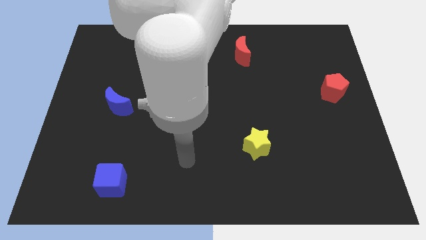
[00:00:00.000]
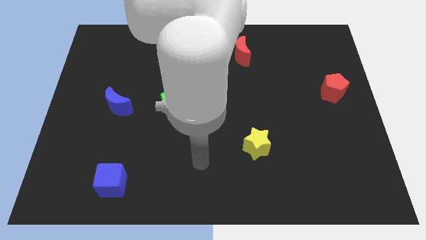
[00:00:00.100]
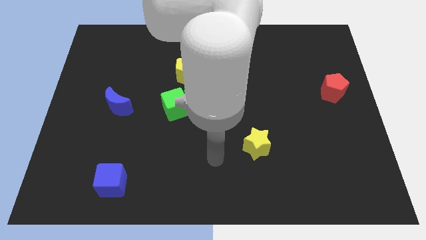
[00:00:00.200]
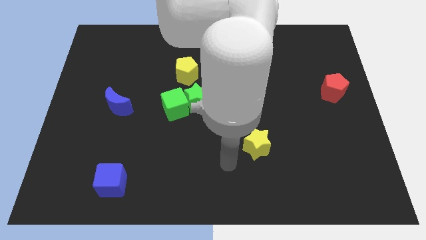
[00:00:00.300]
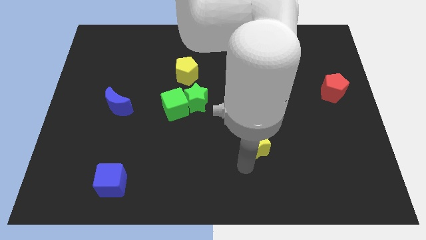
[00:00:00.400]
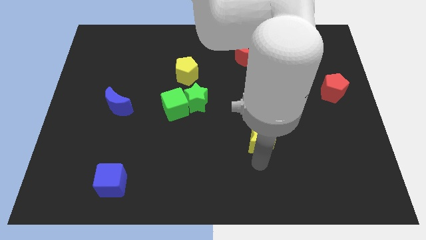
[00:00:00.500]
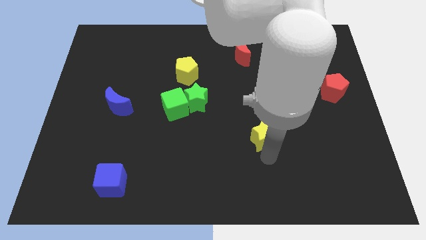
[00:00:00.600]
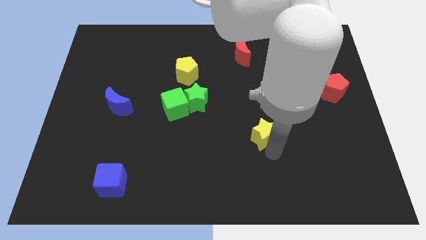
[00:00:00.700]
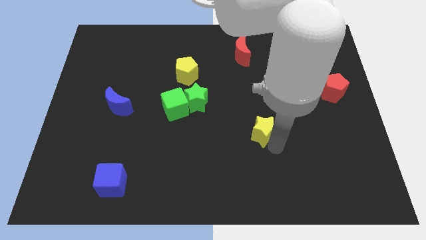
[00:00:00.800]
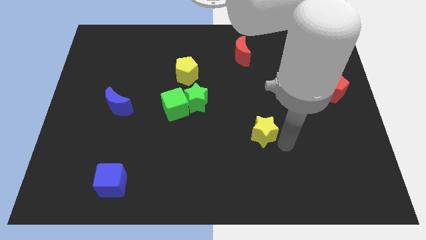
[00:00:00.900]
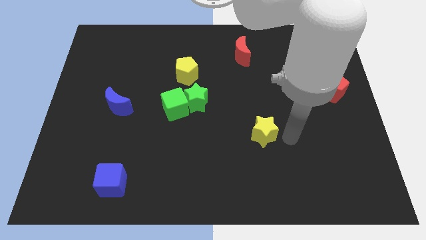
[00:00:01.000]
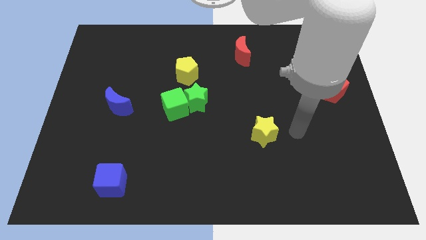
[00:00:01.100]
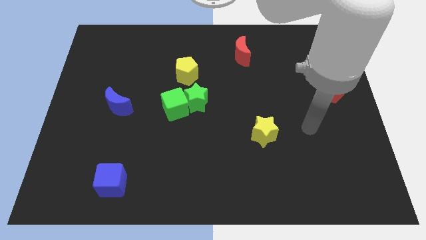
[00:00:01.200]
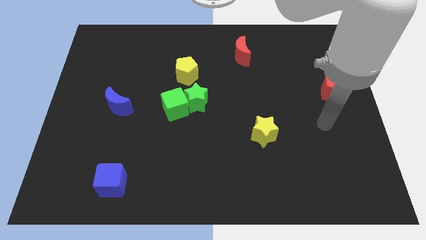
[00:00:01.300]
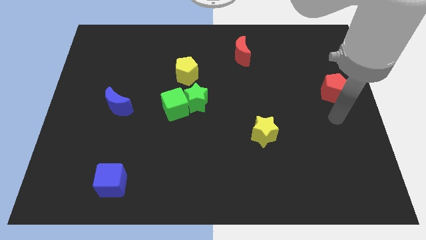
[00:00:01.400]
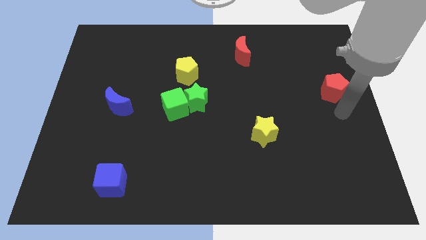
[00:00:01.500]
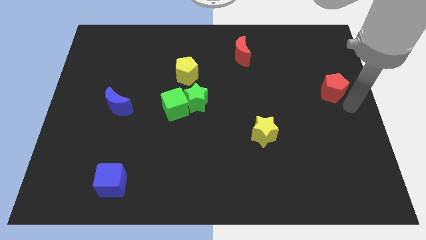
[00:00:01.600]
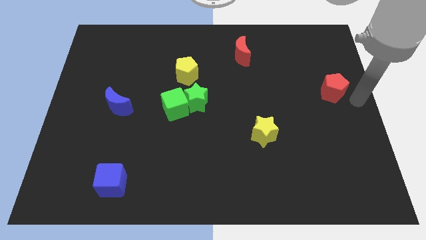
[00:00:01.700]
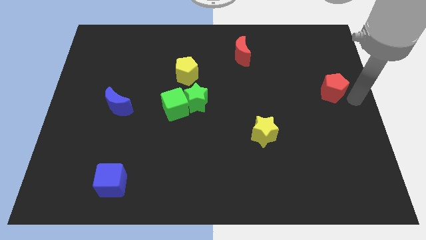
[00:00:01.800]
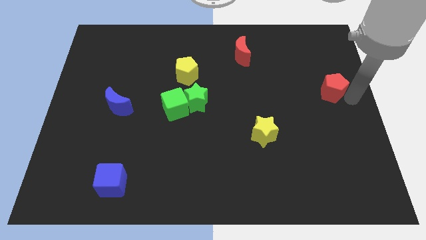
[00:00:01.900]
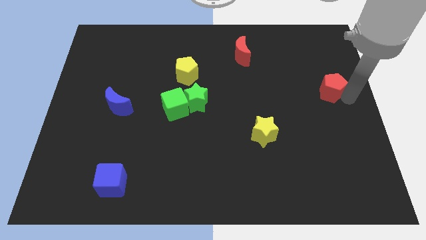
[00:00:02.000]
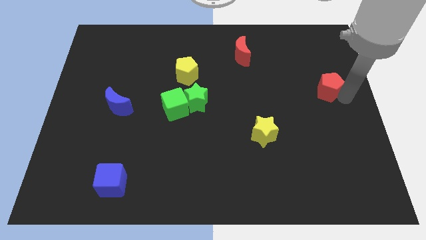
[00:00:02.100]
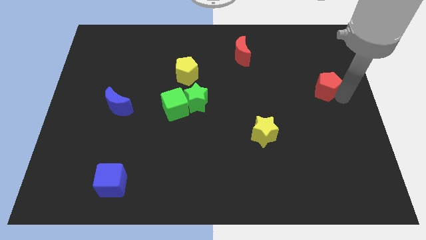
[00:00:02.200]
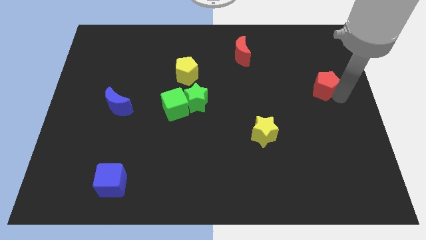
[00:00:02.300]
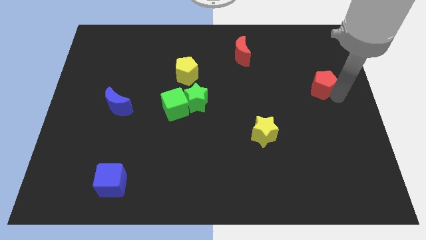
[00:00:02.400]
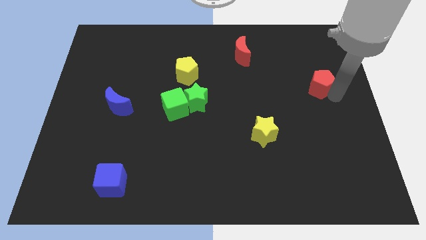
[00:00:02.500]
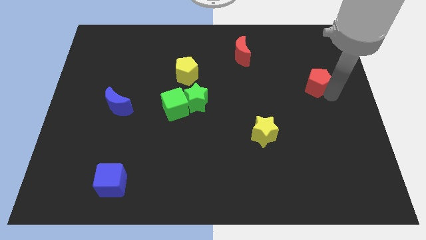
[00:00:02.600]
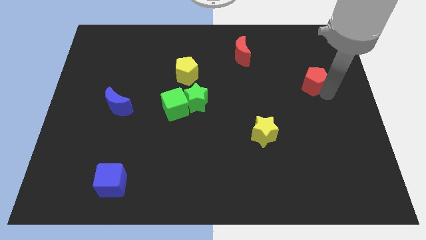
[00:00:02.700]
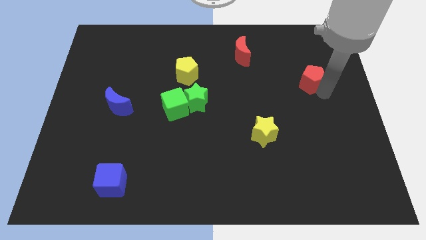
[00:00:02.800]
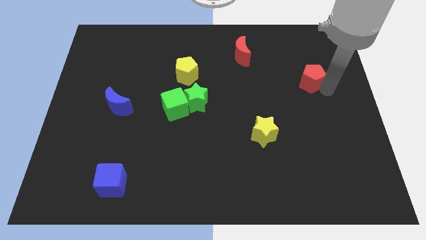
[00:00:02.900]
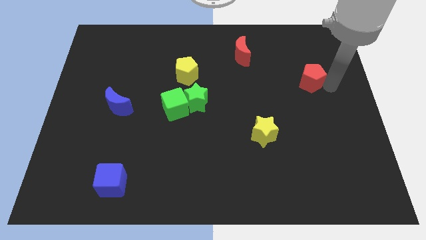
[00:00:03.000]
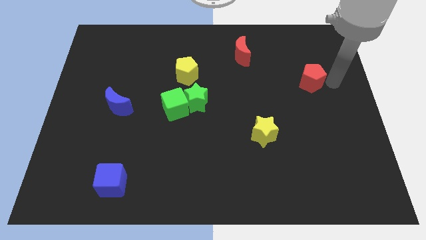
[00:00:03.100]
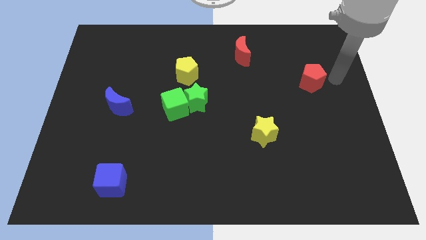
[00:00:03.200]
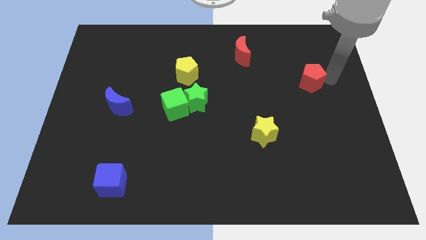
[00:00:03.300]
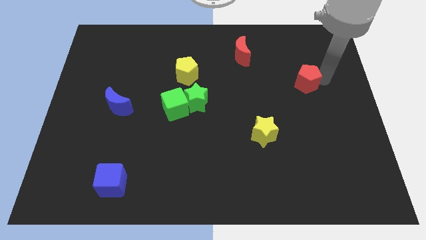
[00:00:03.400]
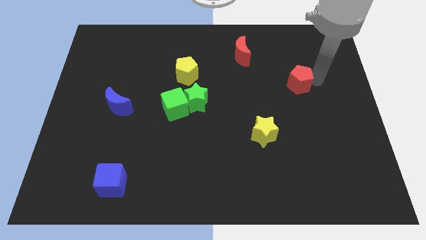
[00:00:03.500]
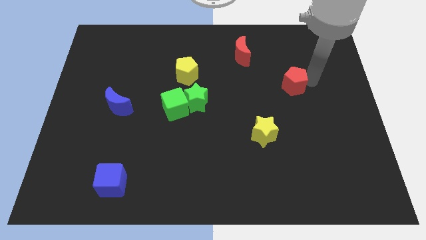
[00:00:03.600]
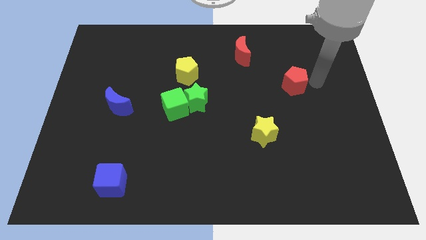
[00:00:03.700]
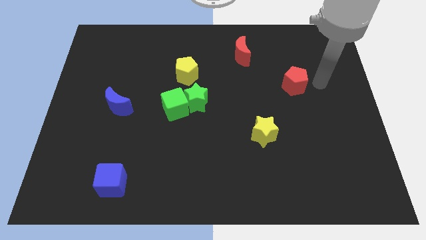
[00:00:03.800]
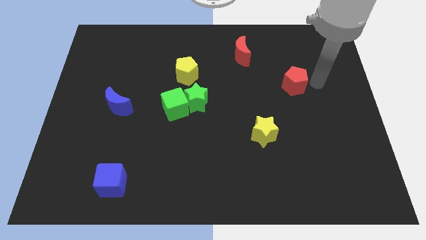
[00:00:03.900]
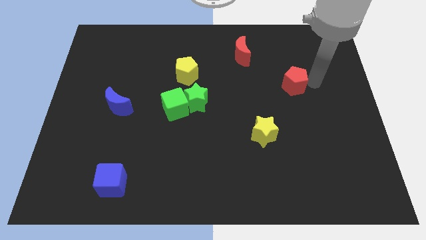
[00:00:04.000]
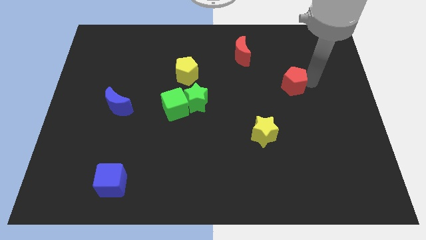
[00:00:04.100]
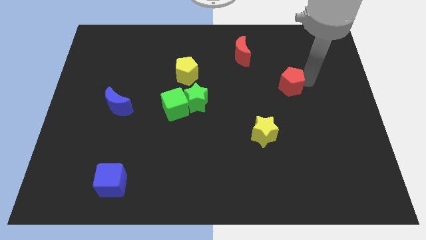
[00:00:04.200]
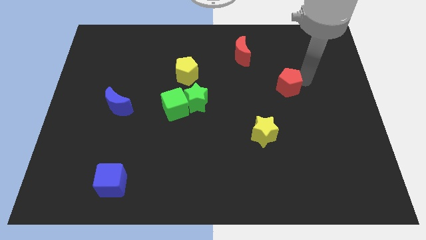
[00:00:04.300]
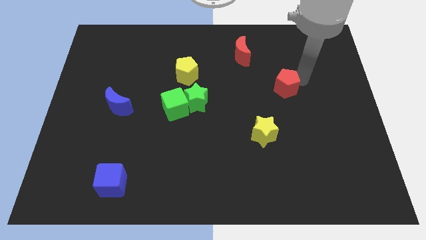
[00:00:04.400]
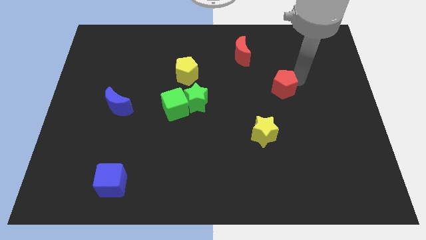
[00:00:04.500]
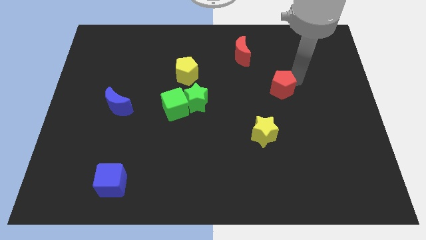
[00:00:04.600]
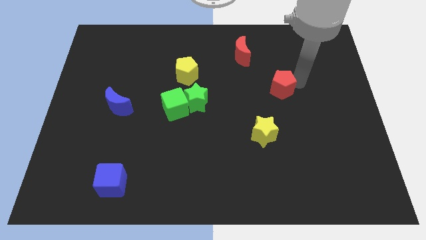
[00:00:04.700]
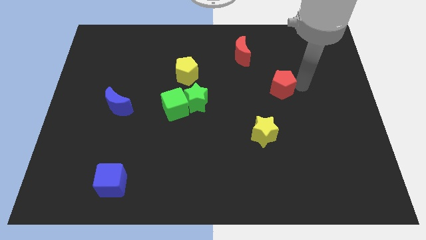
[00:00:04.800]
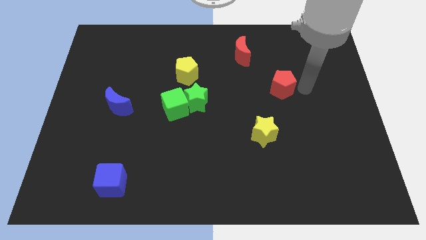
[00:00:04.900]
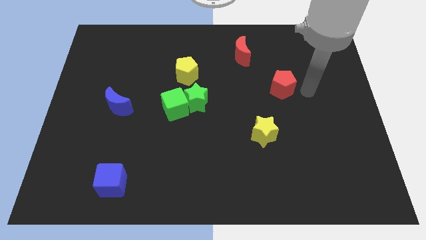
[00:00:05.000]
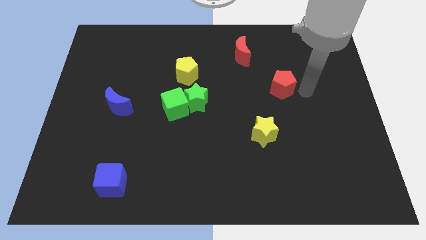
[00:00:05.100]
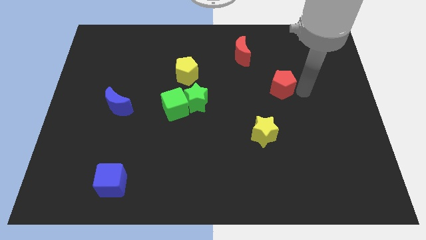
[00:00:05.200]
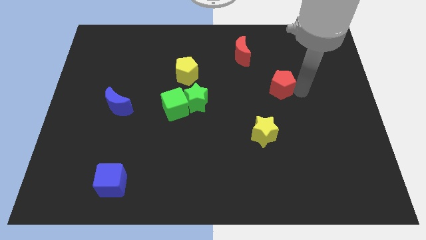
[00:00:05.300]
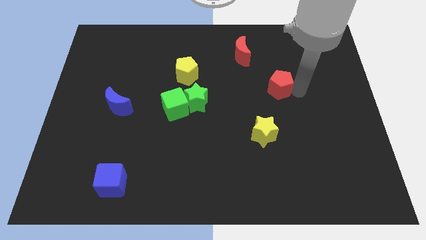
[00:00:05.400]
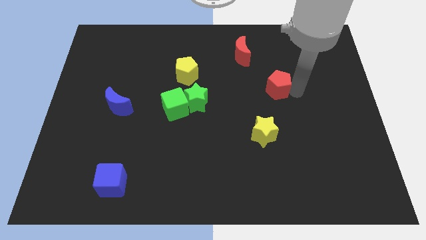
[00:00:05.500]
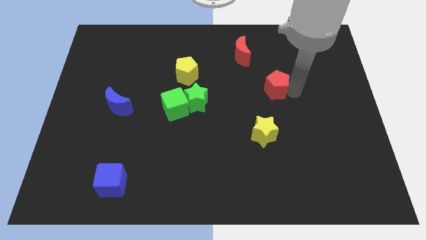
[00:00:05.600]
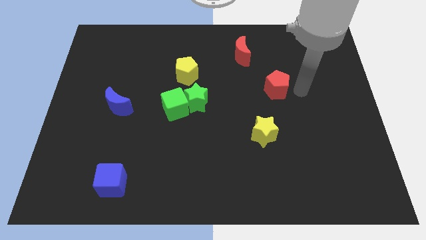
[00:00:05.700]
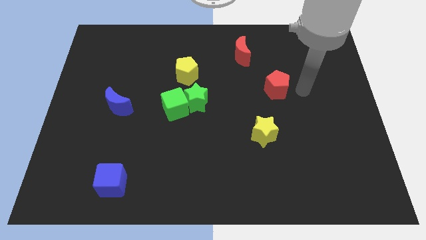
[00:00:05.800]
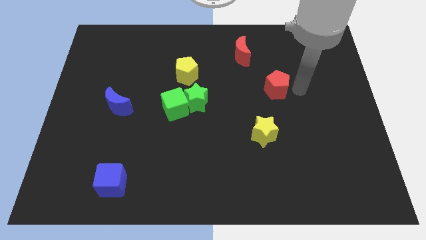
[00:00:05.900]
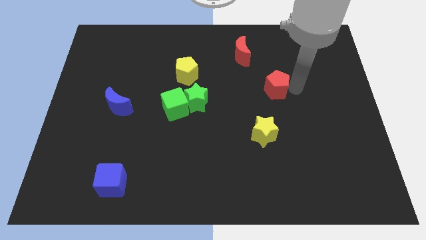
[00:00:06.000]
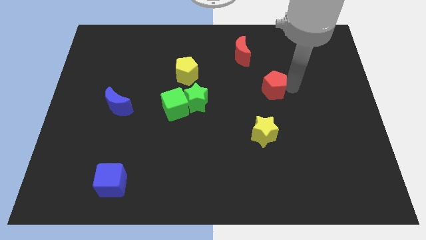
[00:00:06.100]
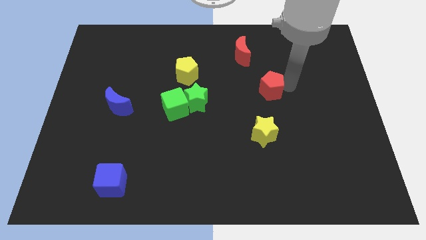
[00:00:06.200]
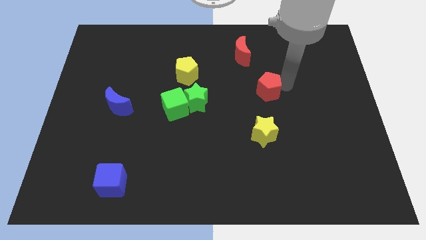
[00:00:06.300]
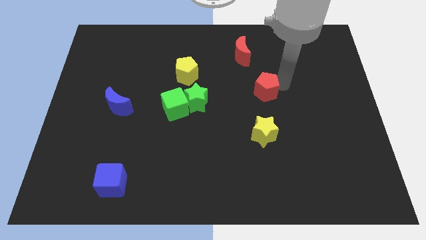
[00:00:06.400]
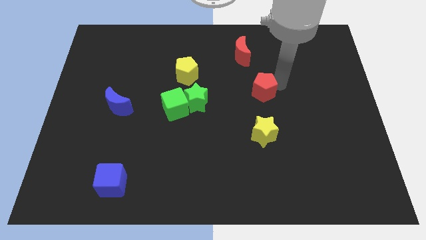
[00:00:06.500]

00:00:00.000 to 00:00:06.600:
slide the red pentagon below the red moon

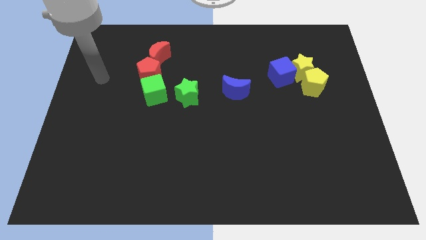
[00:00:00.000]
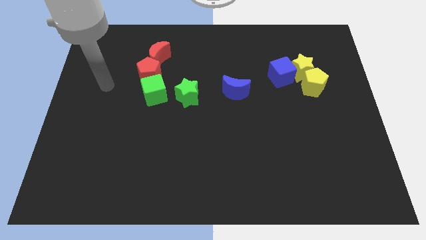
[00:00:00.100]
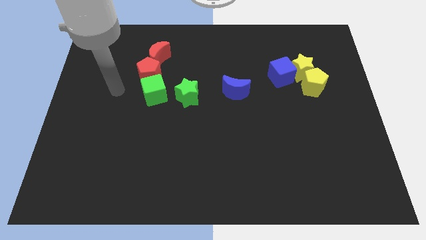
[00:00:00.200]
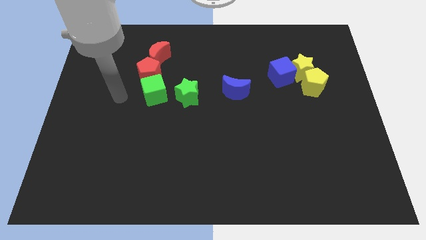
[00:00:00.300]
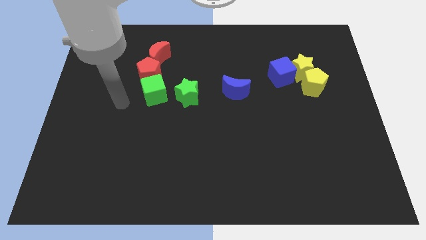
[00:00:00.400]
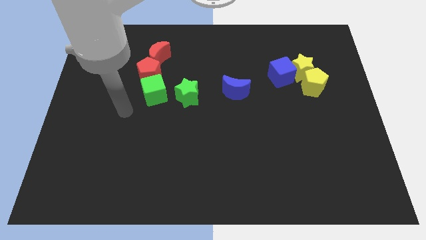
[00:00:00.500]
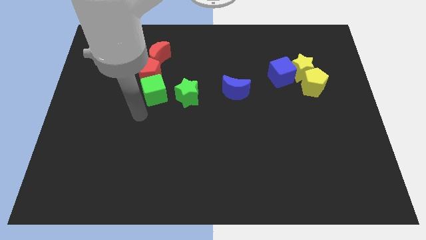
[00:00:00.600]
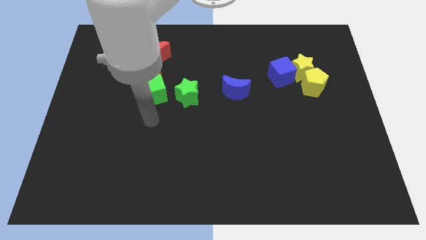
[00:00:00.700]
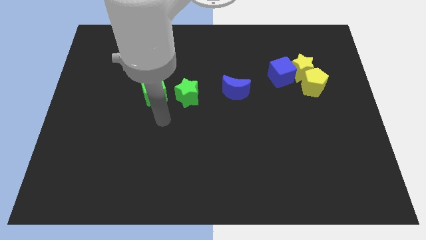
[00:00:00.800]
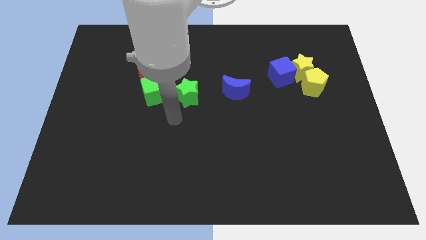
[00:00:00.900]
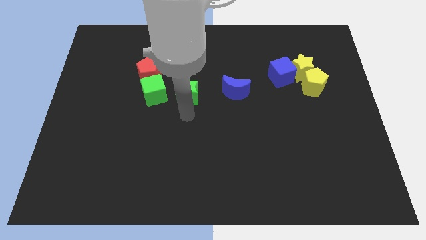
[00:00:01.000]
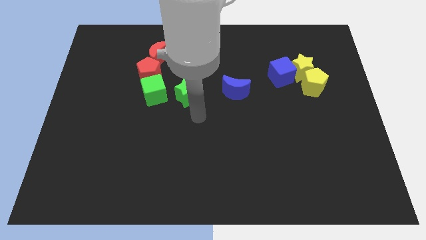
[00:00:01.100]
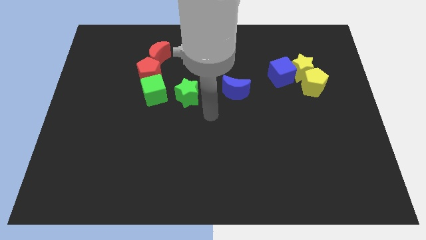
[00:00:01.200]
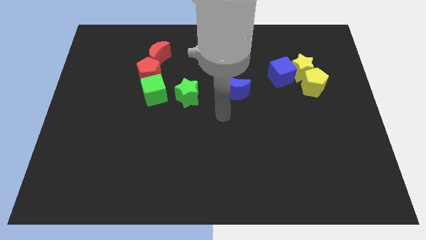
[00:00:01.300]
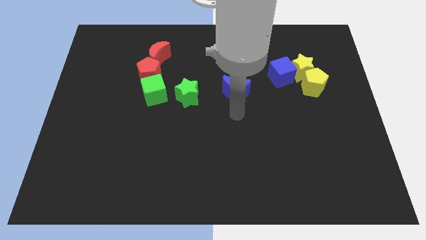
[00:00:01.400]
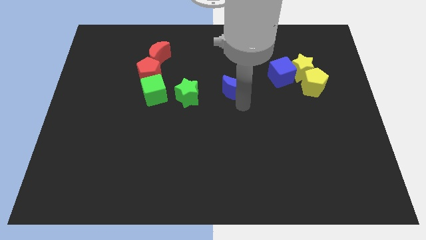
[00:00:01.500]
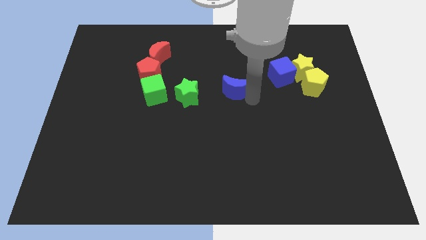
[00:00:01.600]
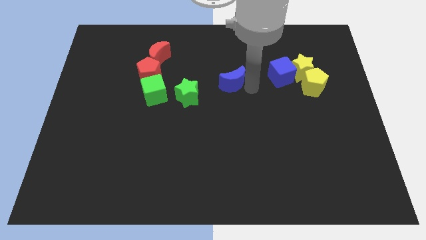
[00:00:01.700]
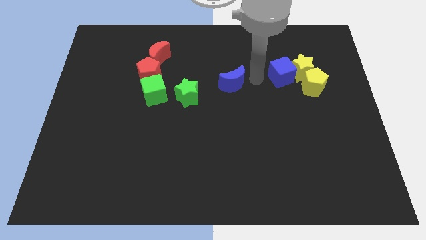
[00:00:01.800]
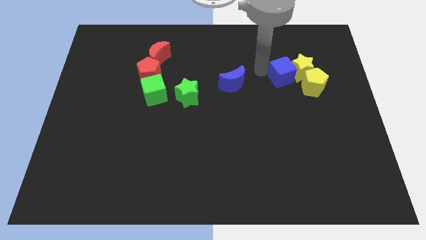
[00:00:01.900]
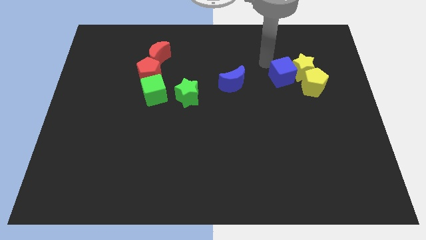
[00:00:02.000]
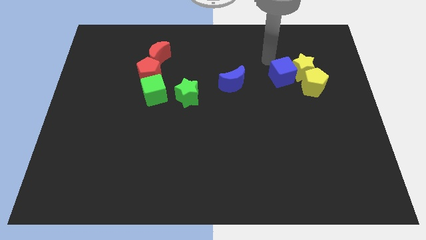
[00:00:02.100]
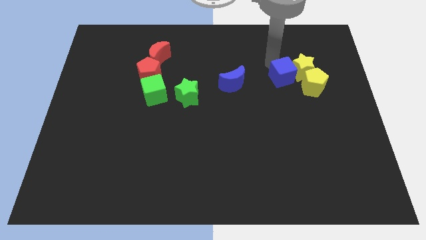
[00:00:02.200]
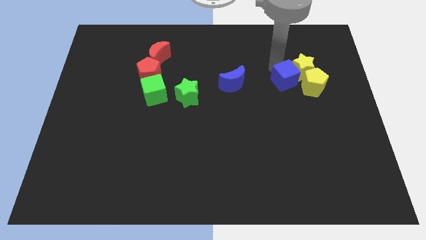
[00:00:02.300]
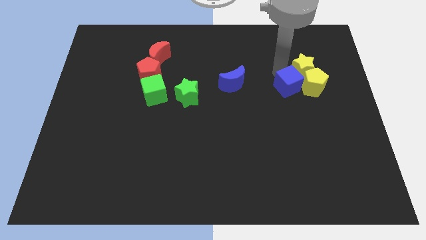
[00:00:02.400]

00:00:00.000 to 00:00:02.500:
push the blue cube below the yellow star
